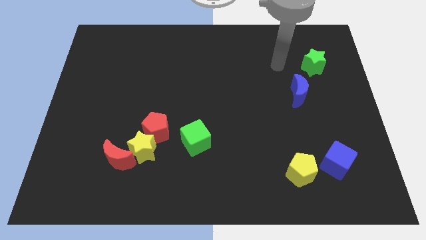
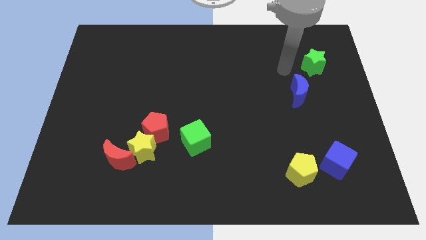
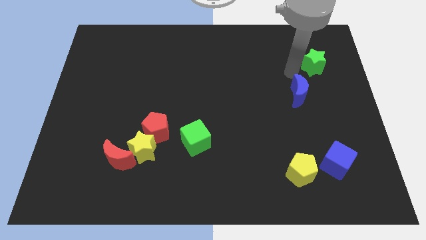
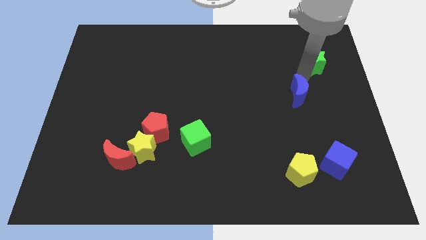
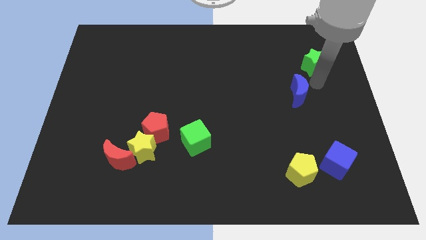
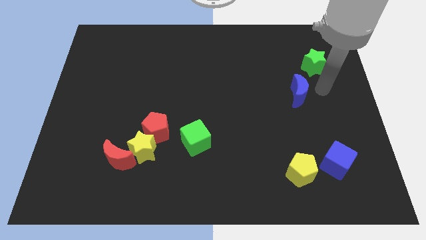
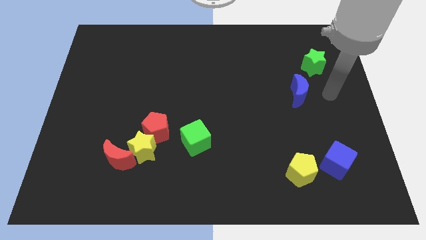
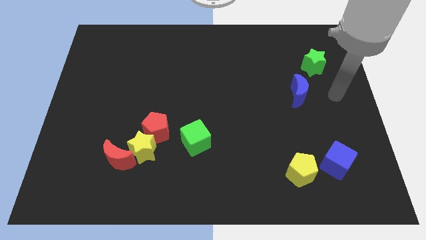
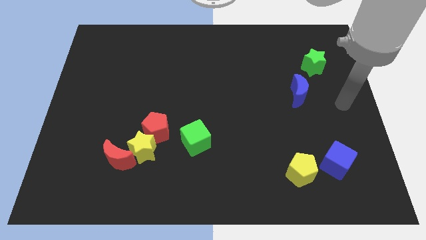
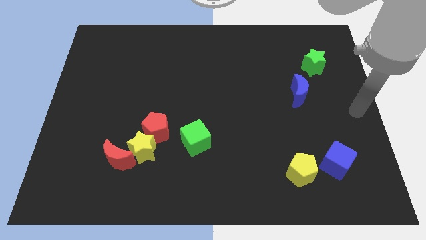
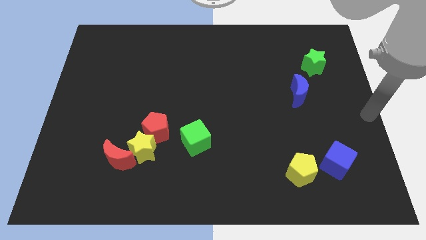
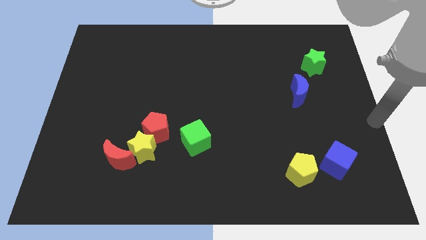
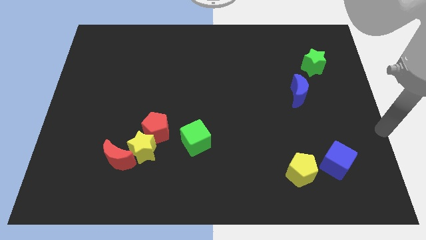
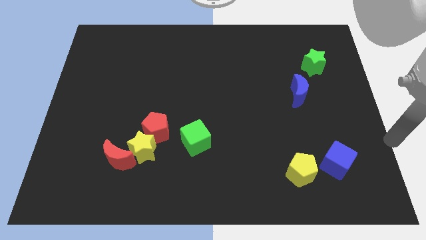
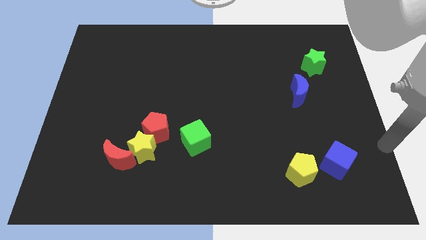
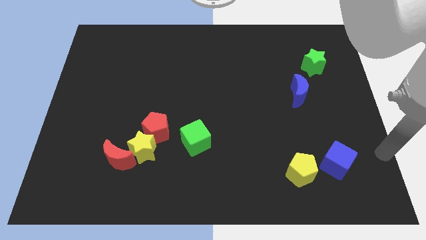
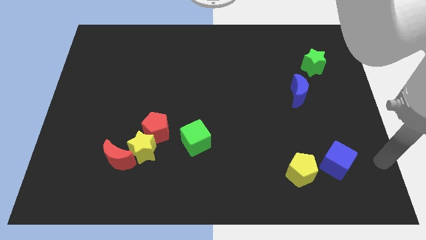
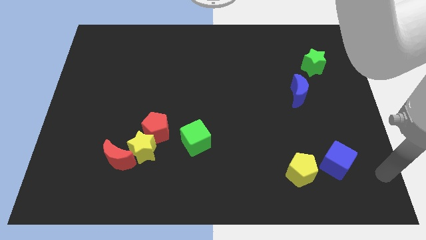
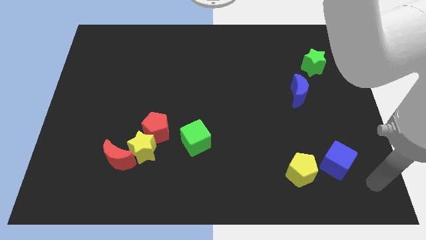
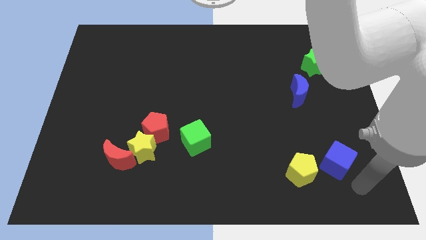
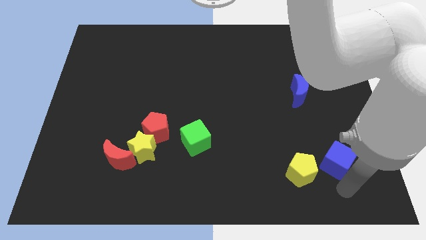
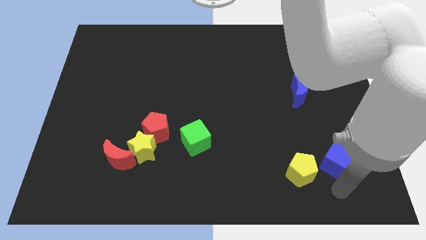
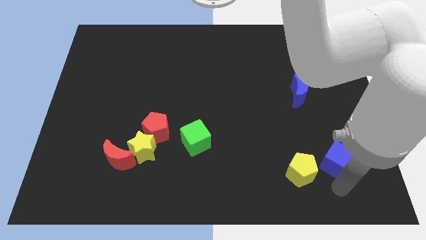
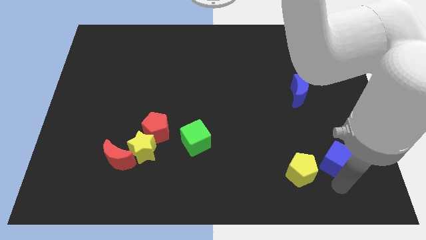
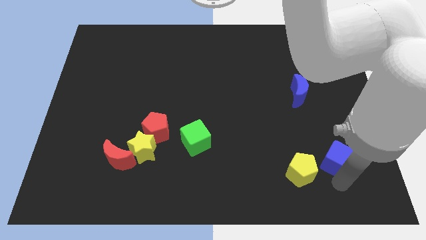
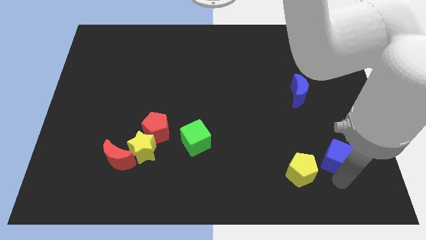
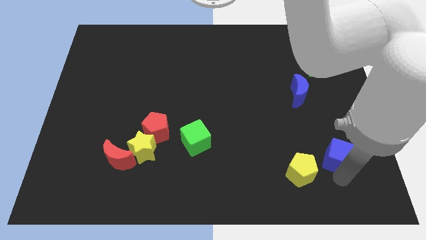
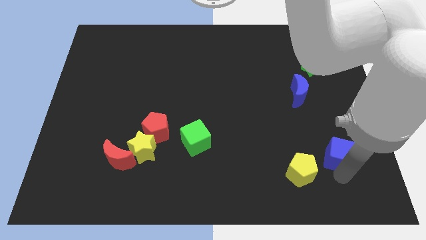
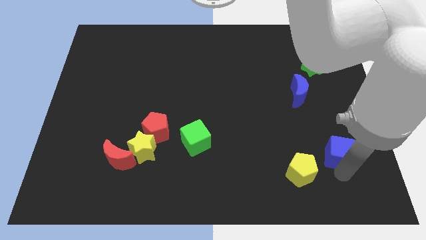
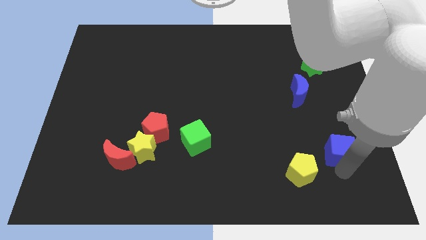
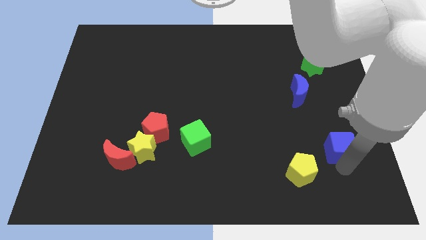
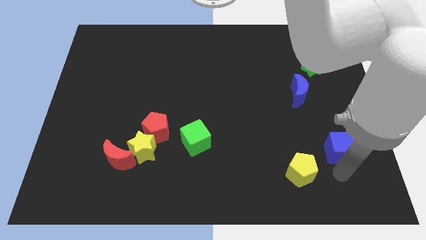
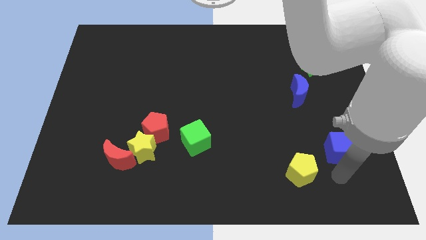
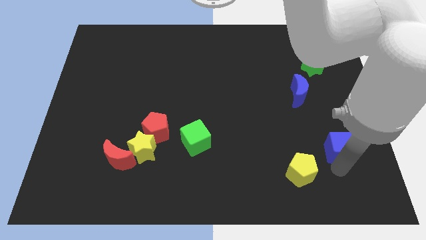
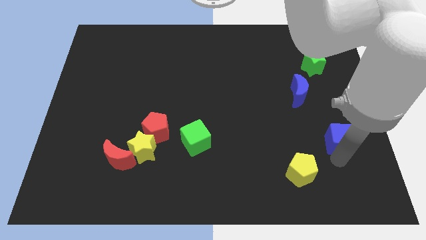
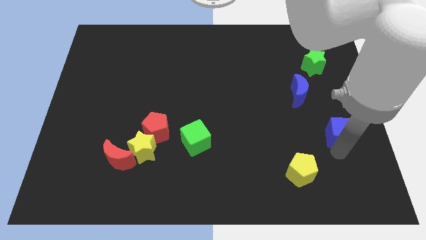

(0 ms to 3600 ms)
slightly slide the blue cube up

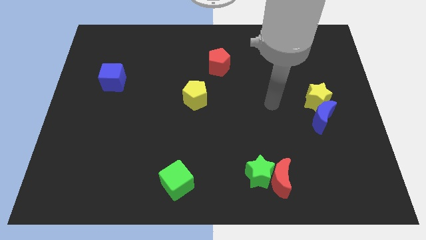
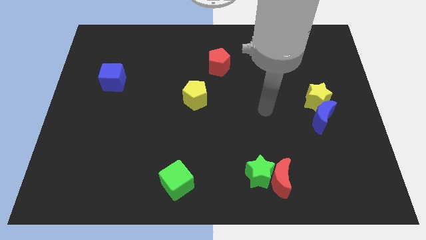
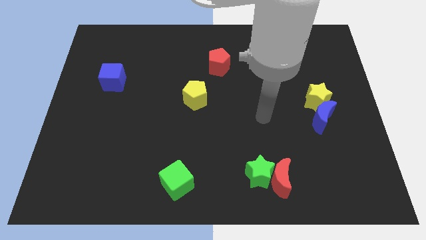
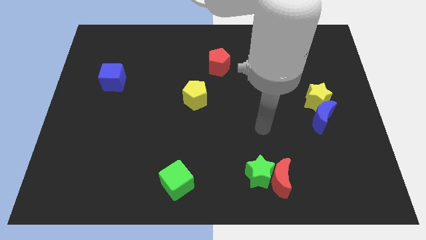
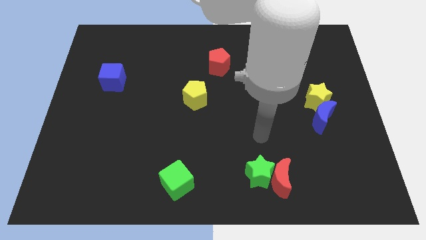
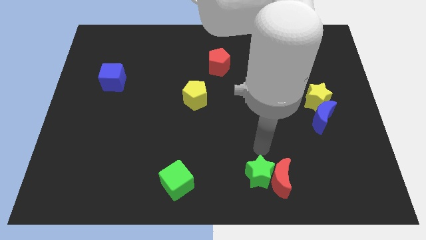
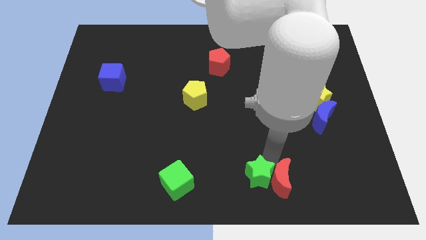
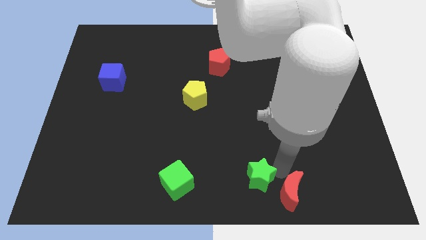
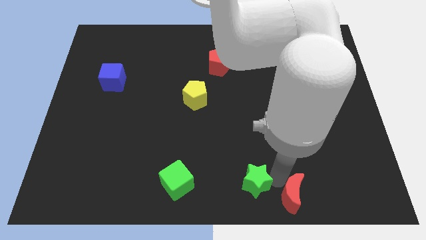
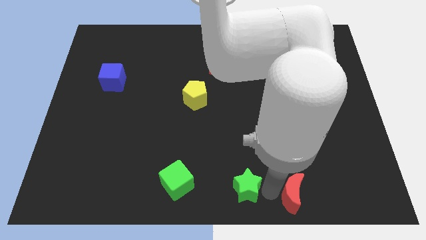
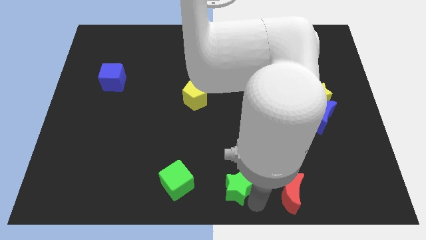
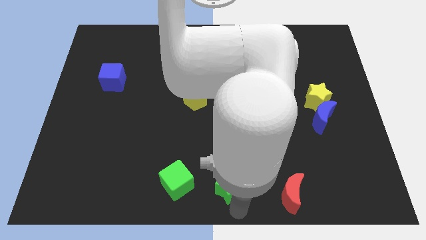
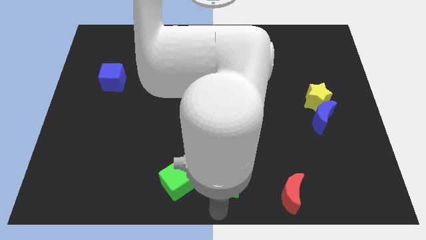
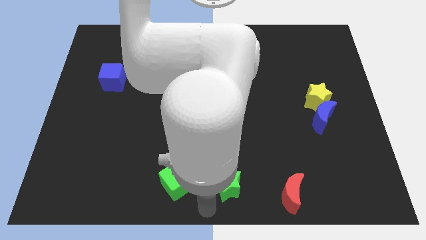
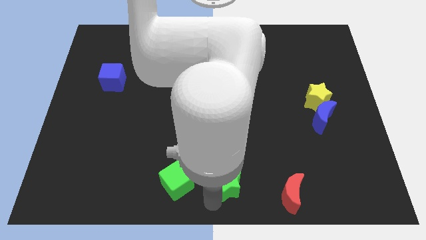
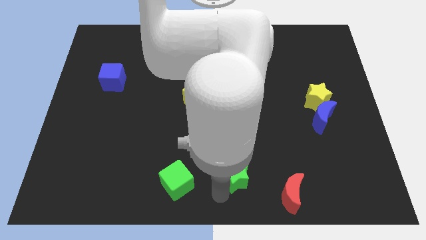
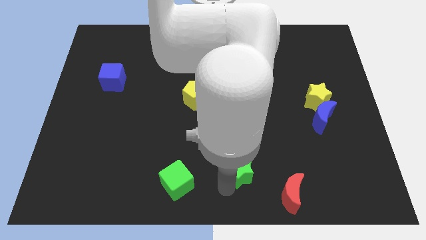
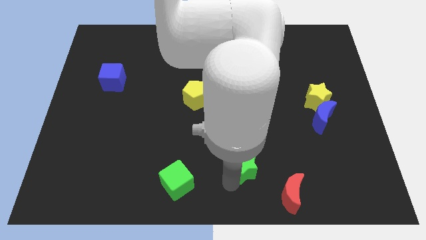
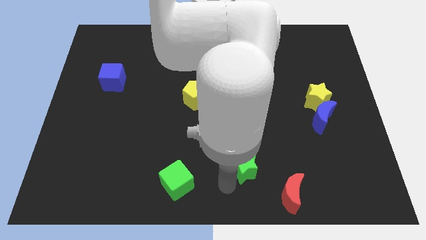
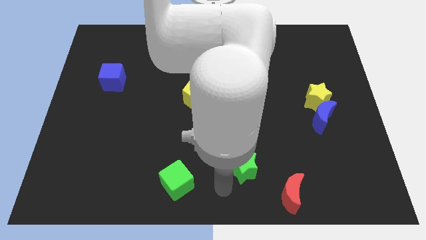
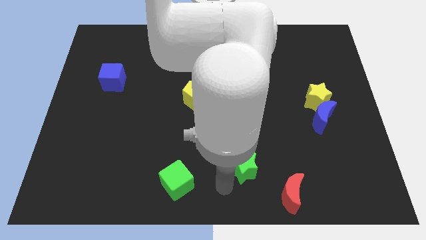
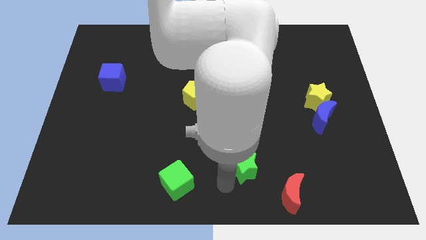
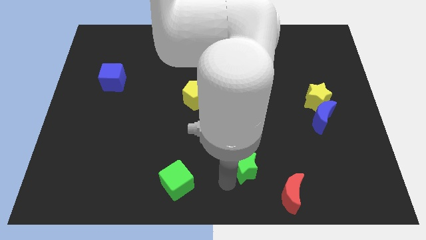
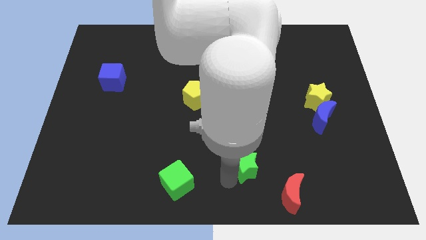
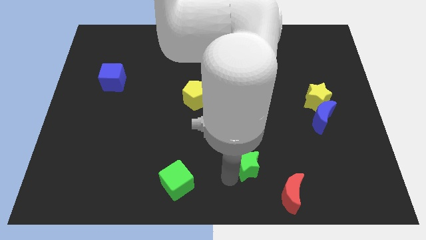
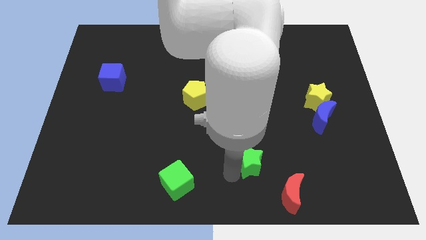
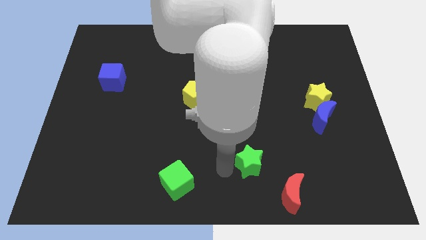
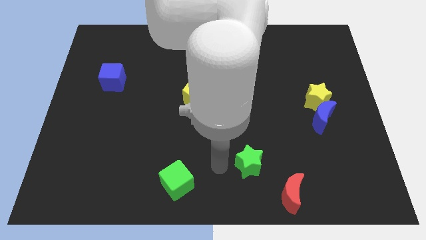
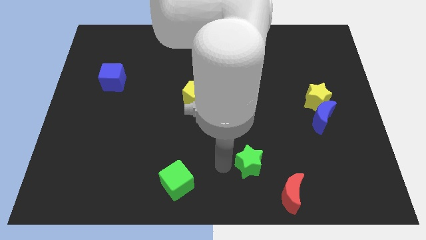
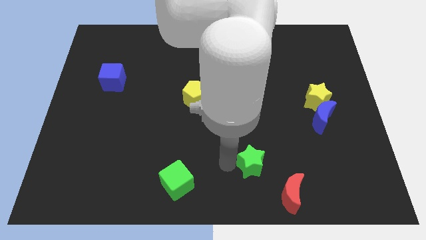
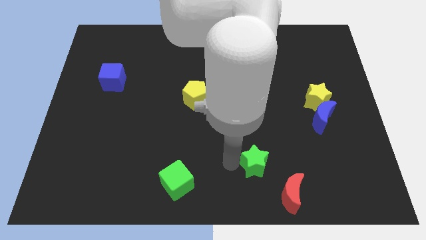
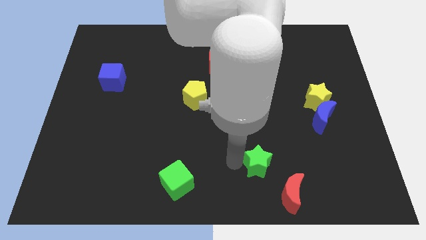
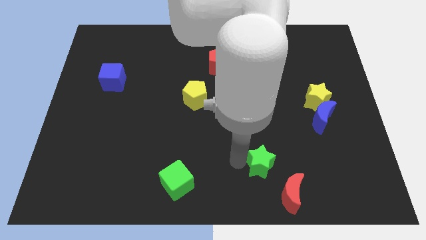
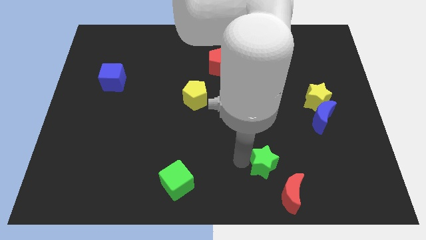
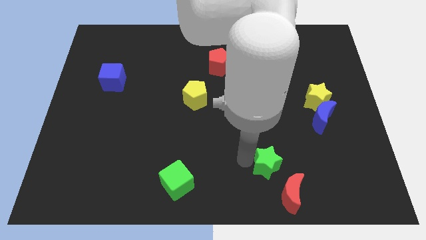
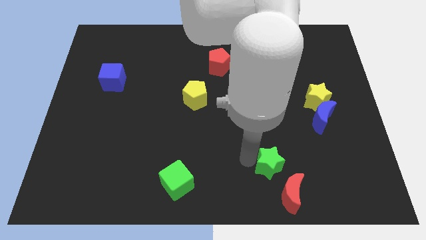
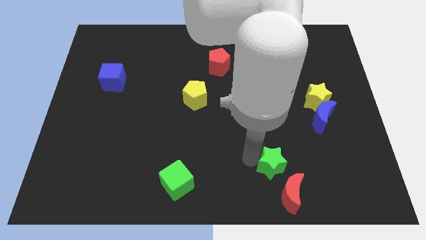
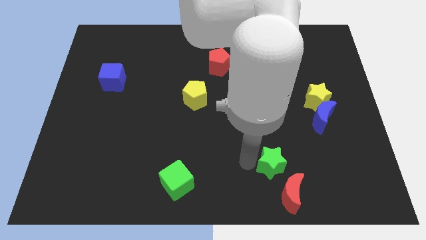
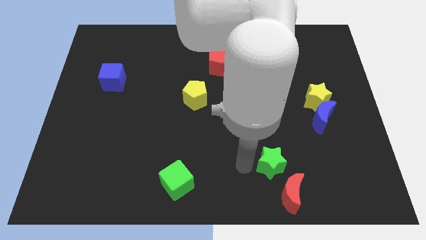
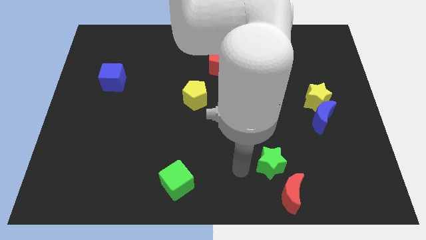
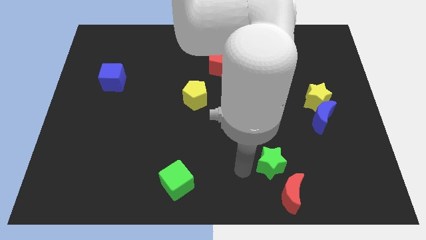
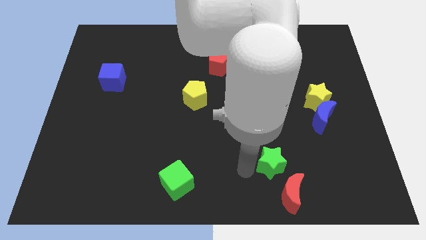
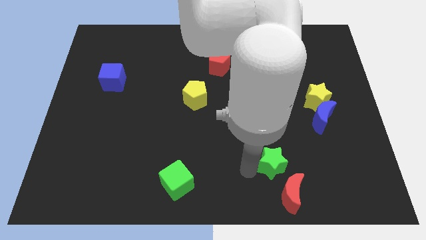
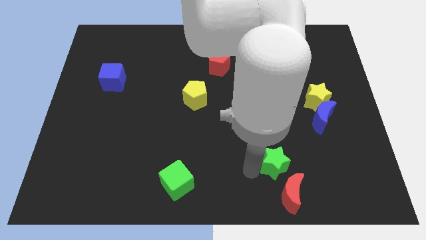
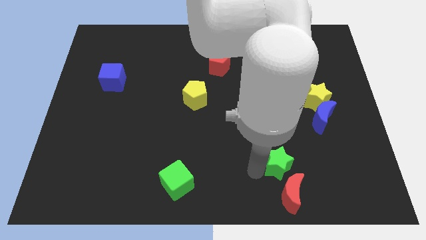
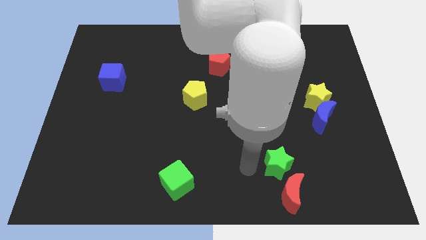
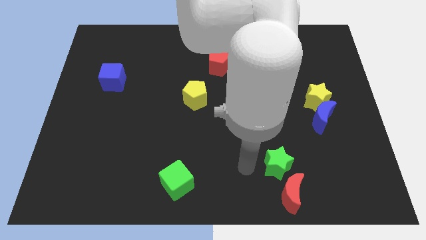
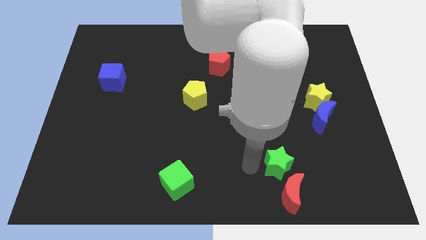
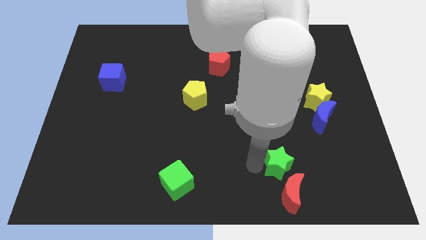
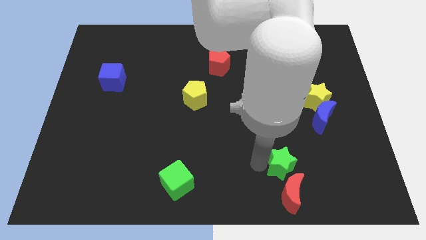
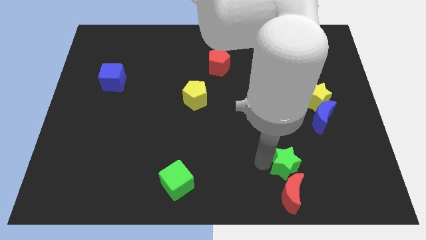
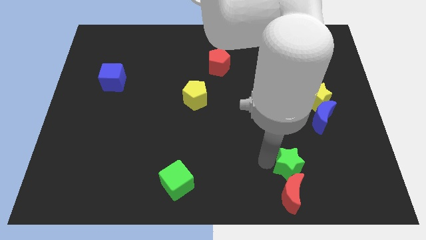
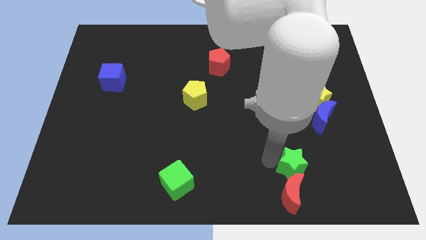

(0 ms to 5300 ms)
move the green star right a little bit
